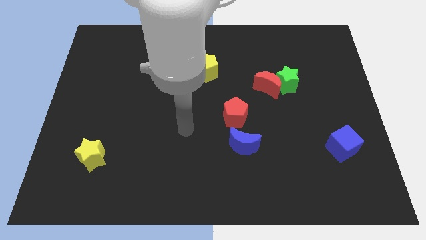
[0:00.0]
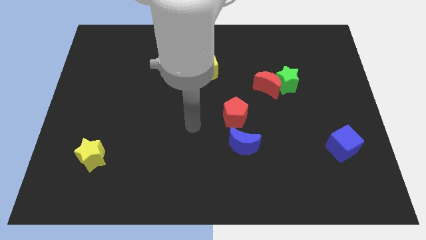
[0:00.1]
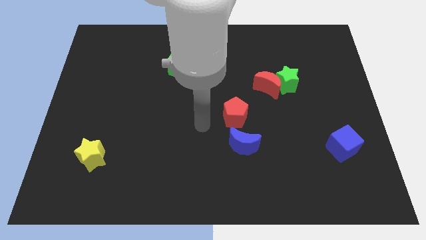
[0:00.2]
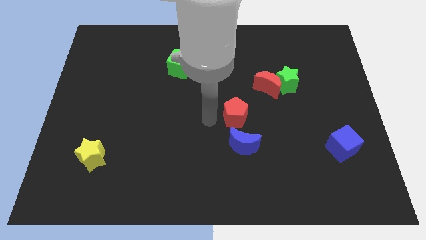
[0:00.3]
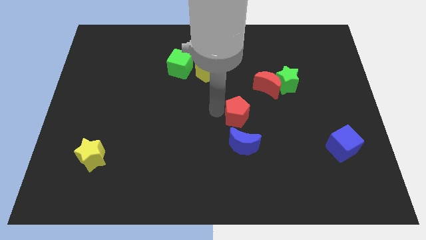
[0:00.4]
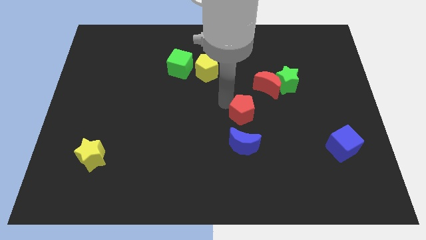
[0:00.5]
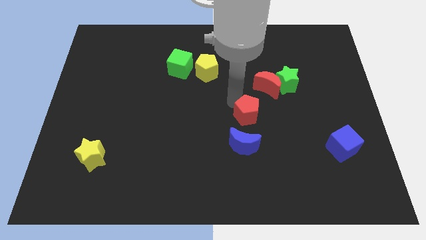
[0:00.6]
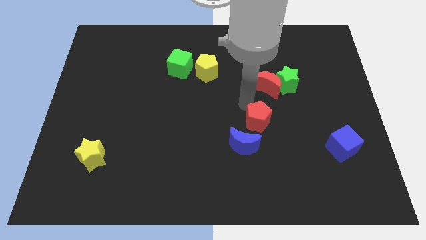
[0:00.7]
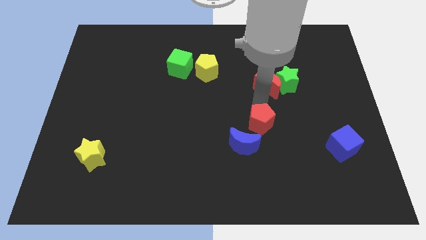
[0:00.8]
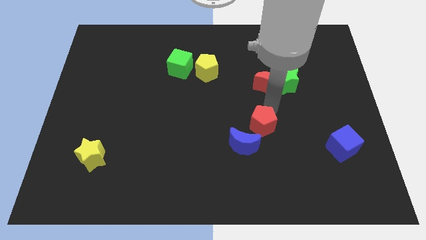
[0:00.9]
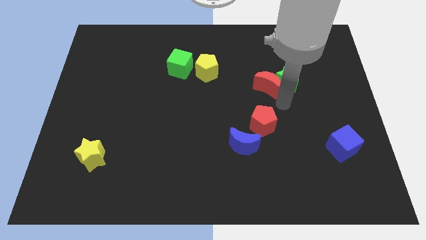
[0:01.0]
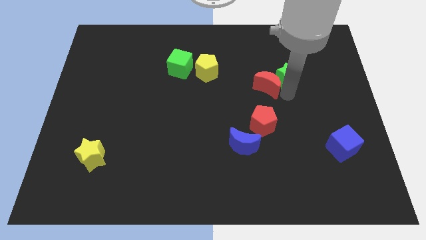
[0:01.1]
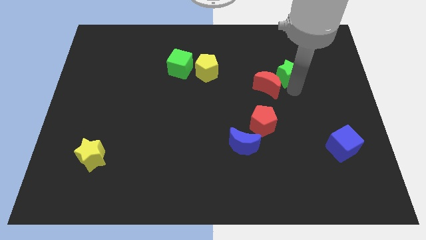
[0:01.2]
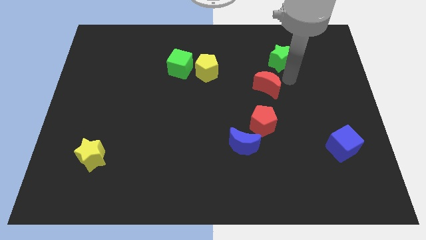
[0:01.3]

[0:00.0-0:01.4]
move the red moon away from the green star

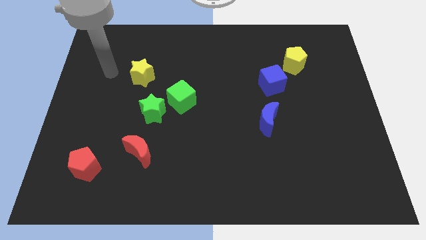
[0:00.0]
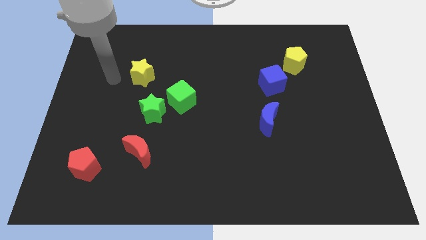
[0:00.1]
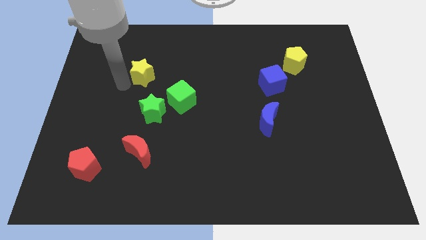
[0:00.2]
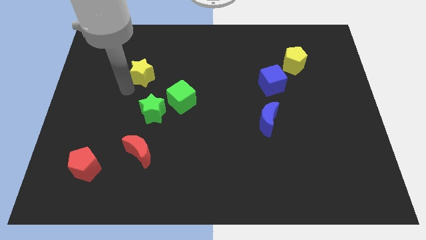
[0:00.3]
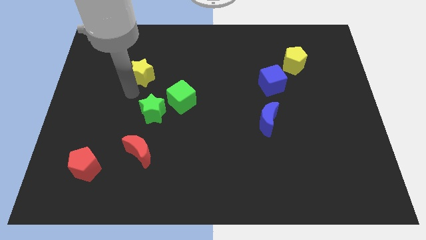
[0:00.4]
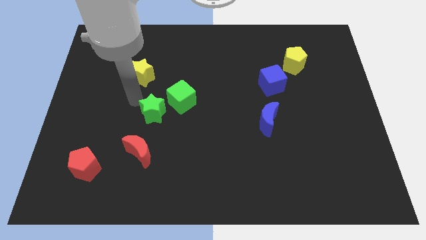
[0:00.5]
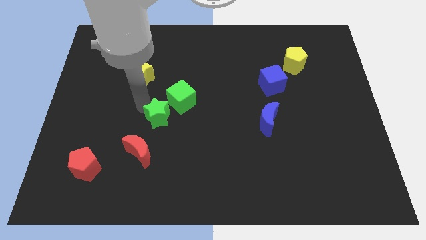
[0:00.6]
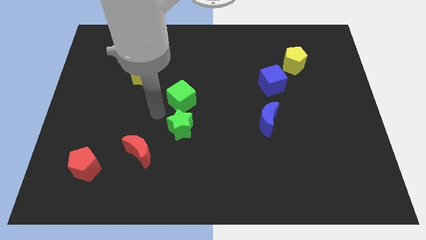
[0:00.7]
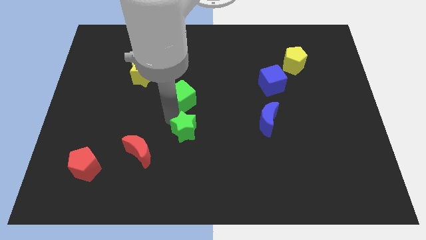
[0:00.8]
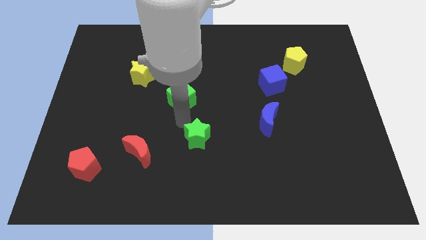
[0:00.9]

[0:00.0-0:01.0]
pull the green cube apart from the green star

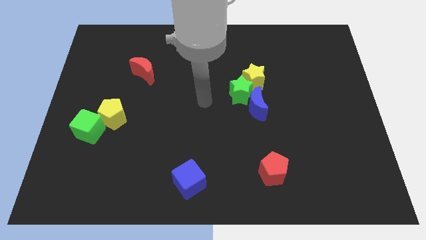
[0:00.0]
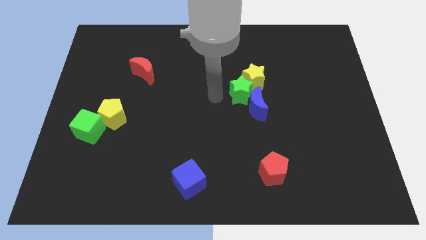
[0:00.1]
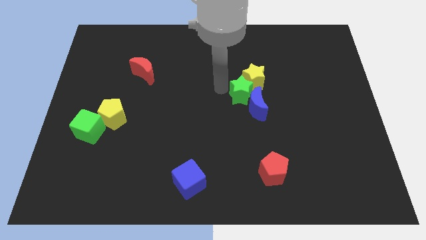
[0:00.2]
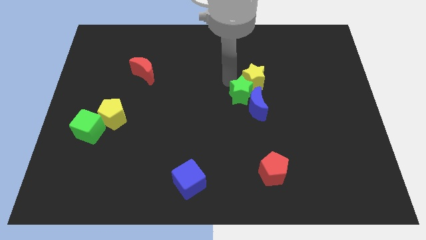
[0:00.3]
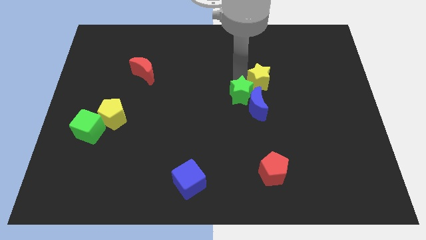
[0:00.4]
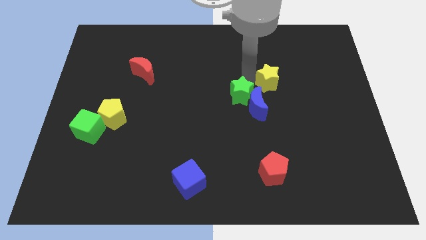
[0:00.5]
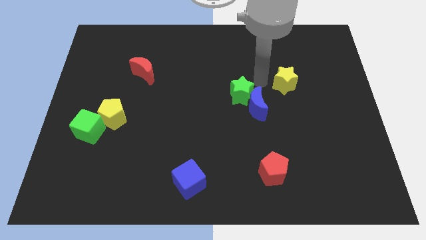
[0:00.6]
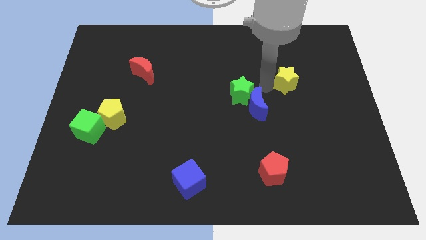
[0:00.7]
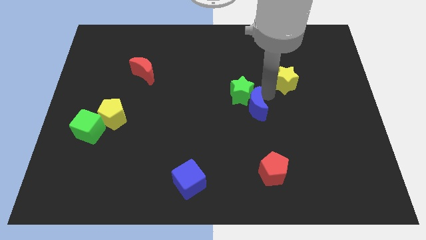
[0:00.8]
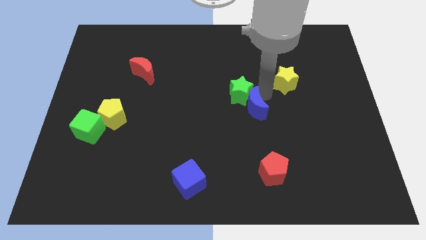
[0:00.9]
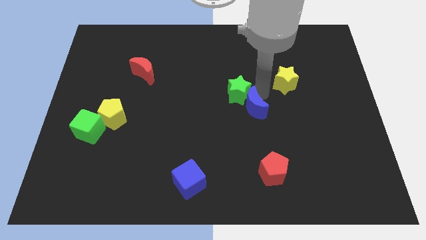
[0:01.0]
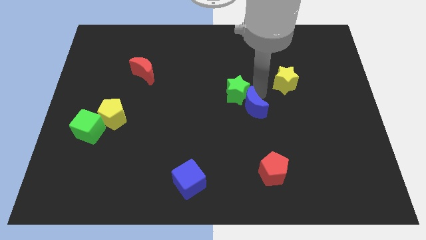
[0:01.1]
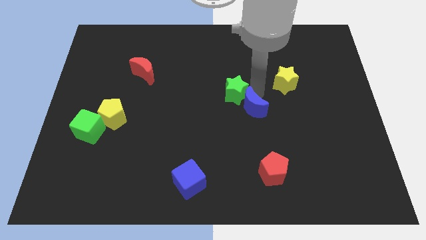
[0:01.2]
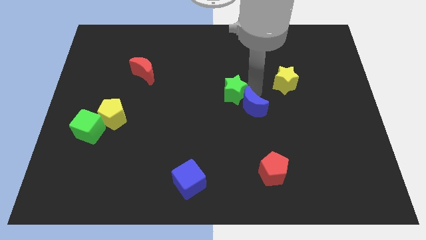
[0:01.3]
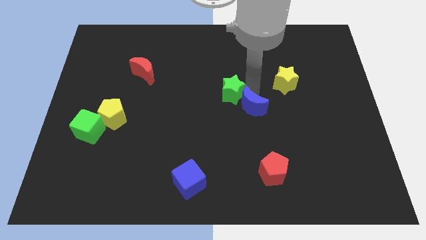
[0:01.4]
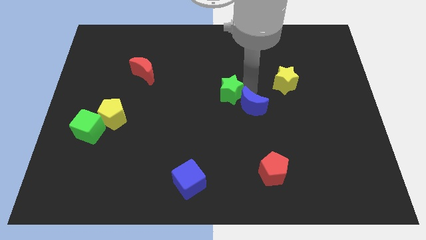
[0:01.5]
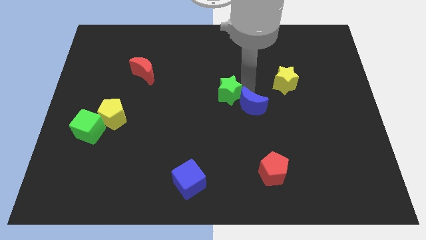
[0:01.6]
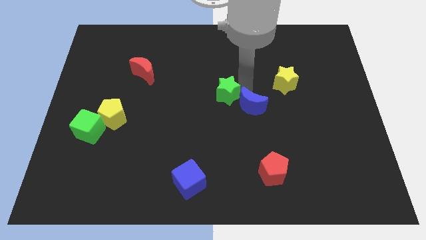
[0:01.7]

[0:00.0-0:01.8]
separate the green star from the blue moon and yellow star

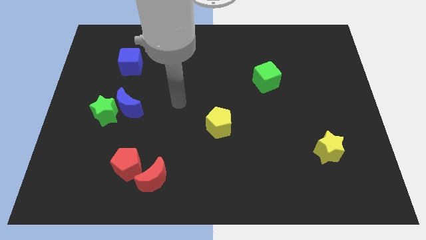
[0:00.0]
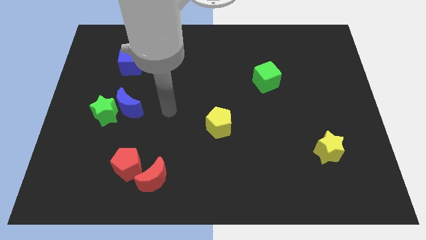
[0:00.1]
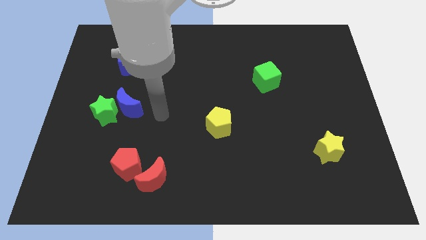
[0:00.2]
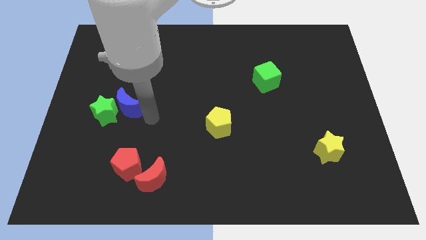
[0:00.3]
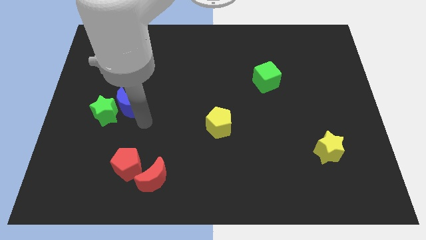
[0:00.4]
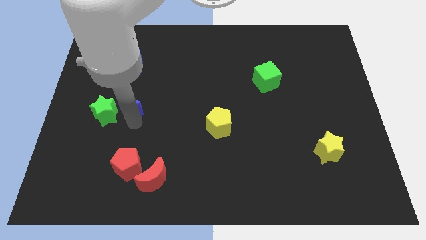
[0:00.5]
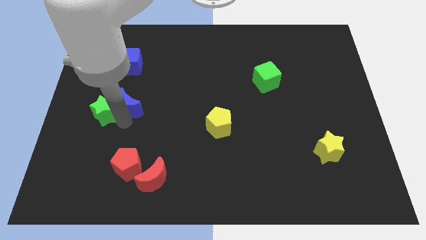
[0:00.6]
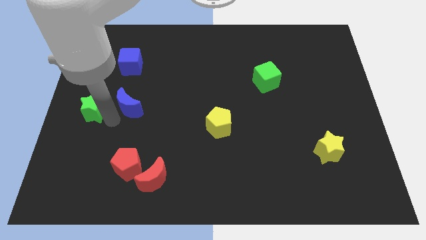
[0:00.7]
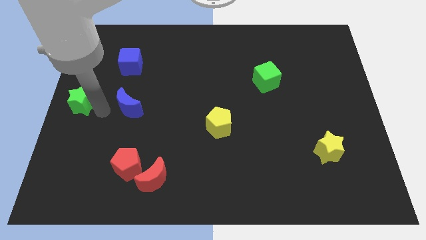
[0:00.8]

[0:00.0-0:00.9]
separate the blue moon from the green star

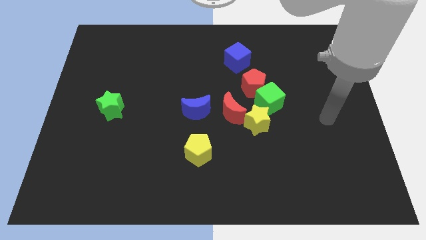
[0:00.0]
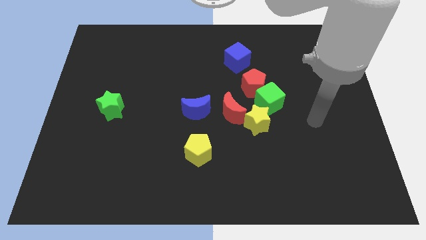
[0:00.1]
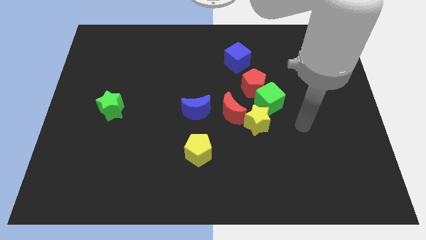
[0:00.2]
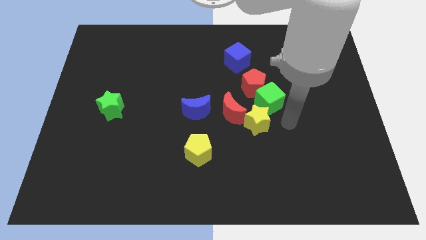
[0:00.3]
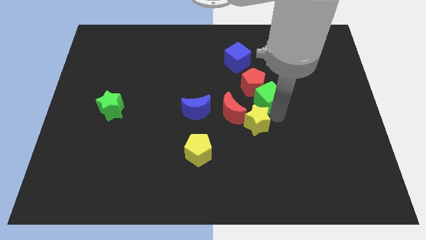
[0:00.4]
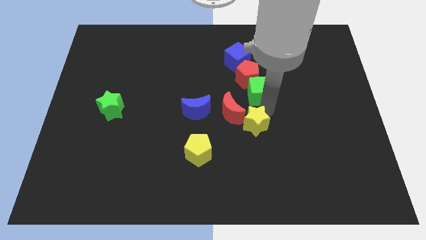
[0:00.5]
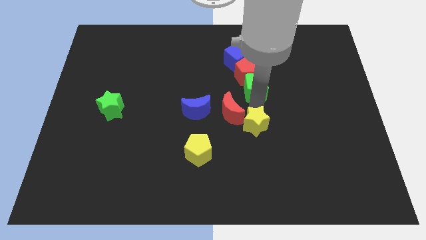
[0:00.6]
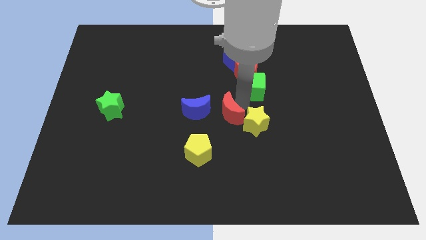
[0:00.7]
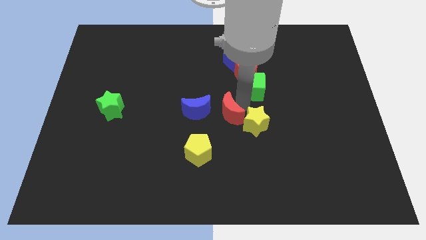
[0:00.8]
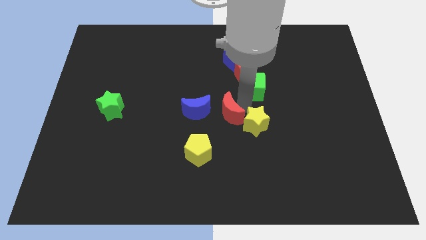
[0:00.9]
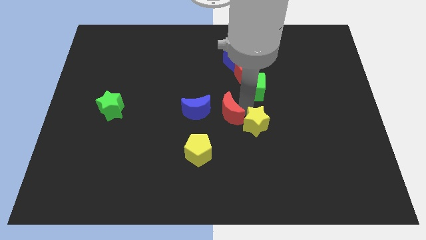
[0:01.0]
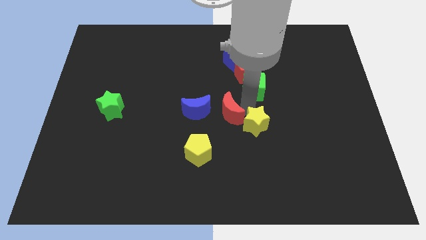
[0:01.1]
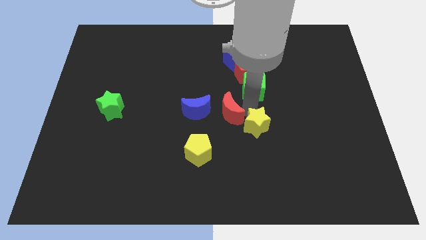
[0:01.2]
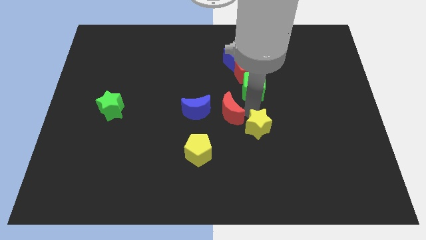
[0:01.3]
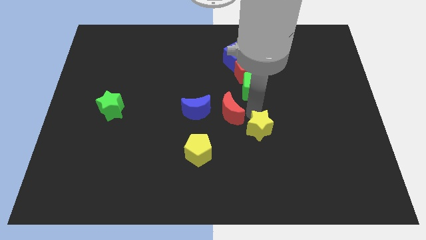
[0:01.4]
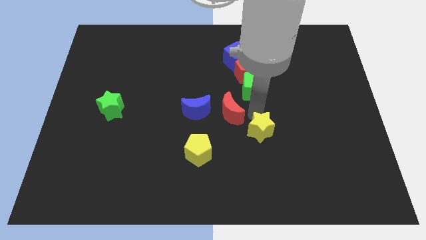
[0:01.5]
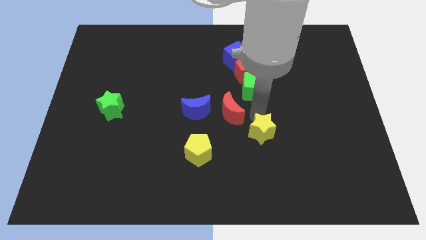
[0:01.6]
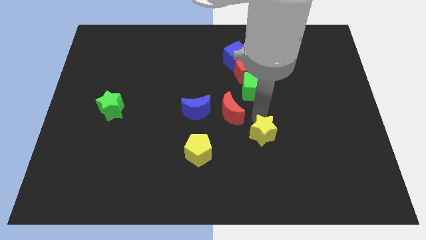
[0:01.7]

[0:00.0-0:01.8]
separate the yellow star from the red moon and green cube

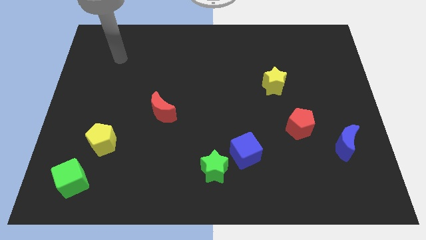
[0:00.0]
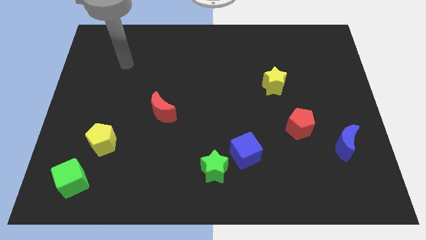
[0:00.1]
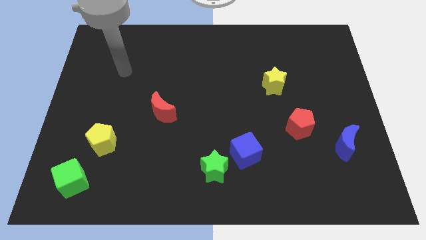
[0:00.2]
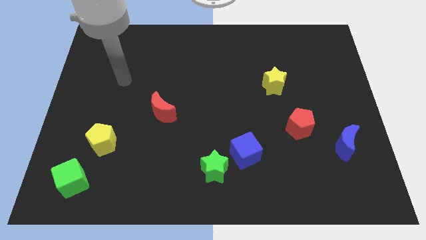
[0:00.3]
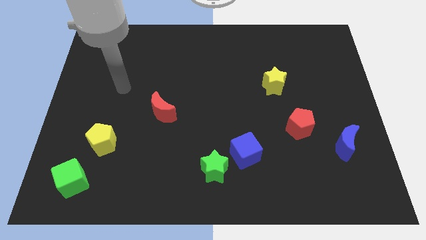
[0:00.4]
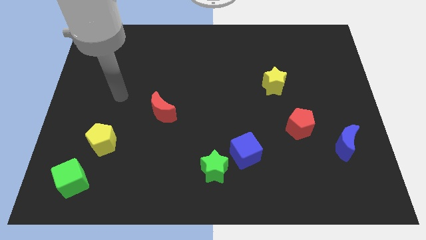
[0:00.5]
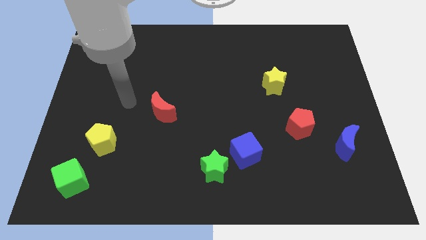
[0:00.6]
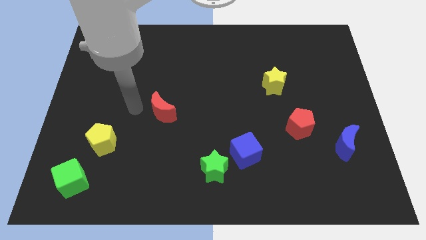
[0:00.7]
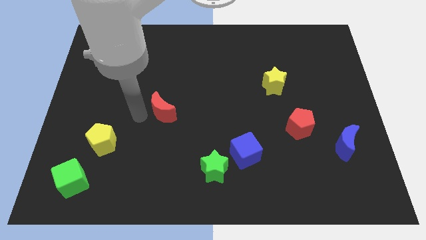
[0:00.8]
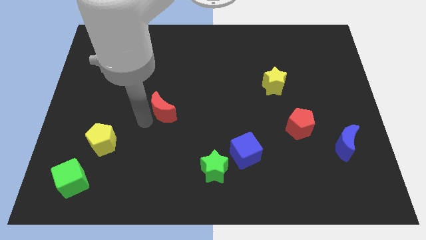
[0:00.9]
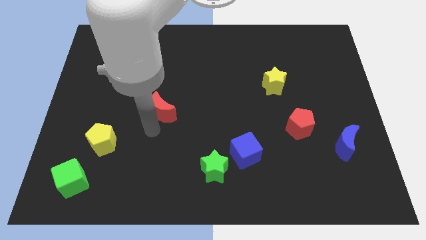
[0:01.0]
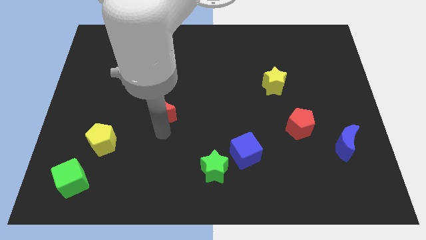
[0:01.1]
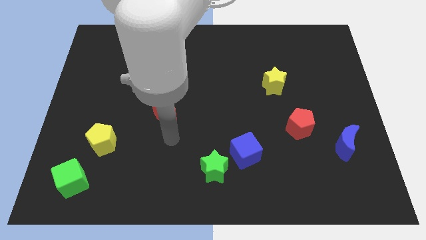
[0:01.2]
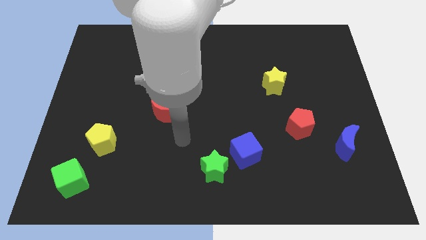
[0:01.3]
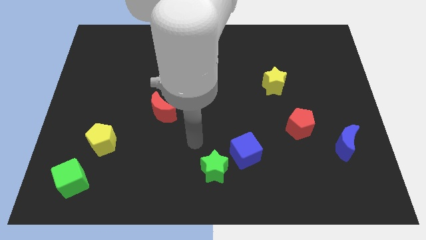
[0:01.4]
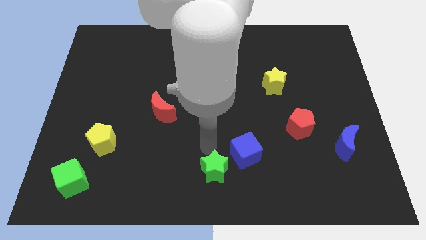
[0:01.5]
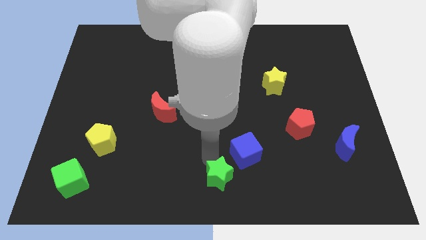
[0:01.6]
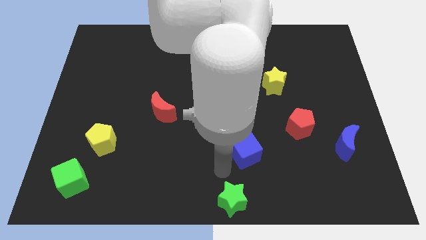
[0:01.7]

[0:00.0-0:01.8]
move the blue cube away from the green star

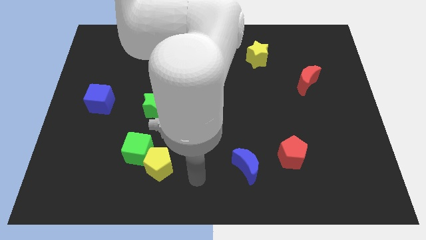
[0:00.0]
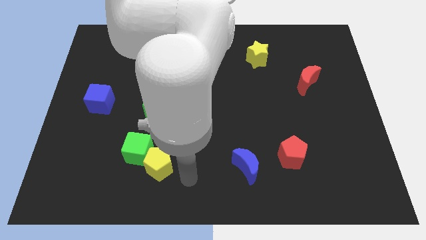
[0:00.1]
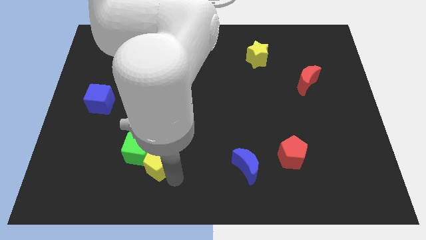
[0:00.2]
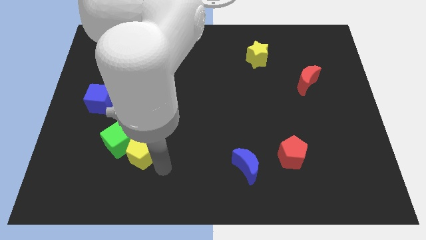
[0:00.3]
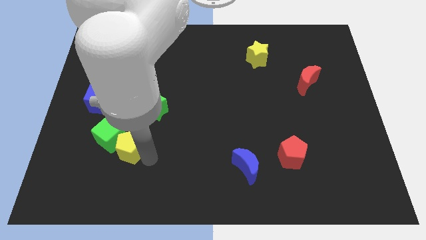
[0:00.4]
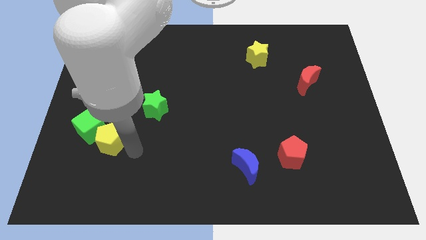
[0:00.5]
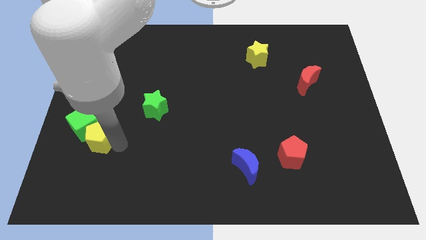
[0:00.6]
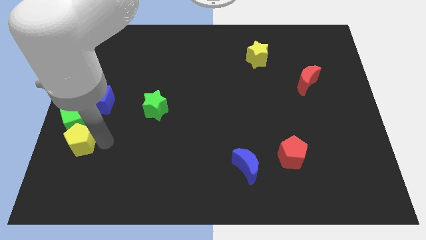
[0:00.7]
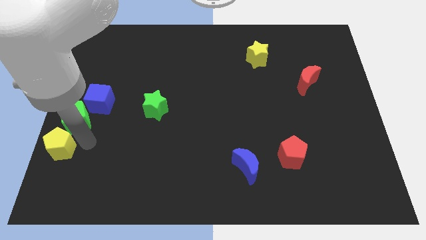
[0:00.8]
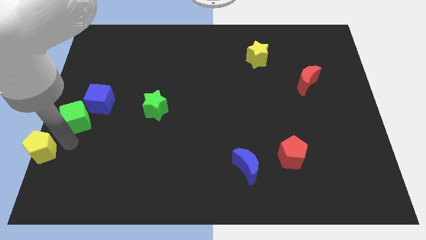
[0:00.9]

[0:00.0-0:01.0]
move the green cube away from the yellow pentagon
